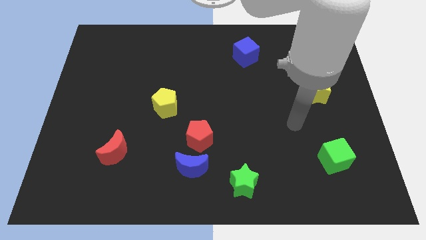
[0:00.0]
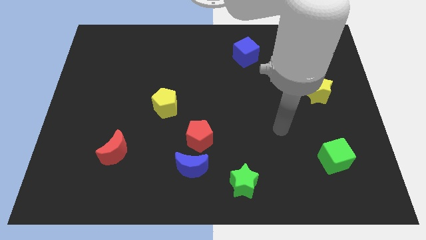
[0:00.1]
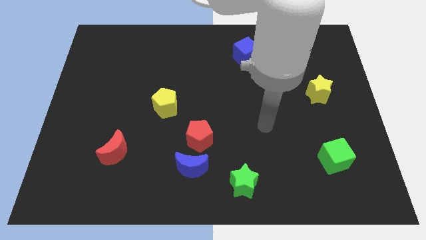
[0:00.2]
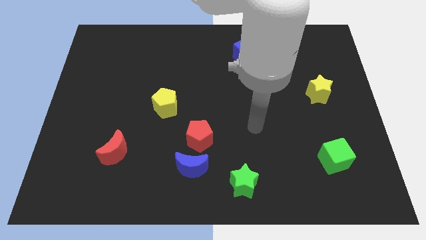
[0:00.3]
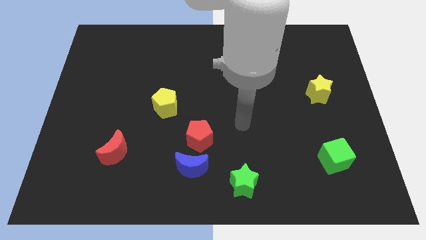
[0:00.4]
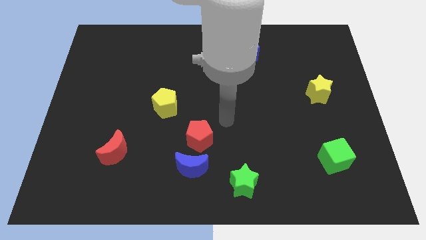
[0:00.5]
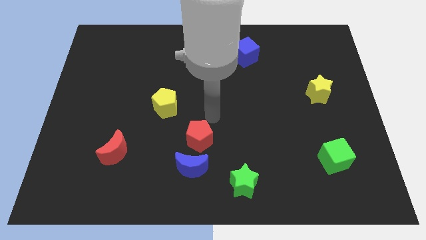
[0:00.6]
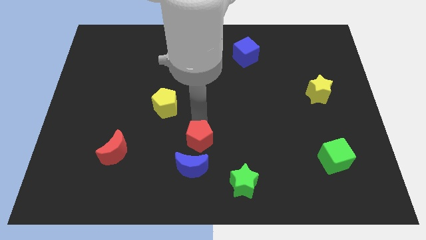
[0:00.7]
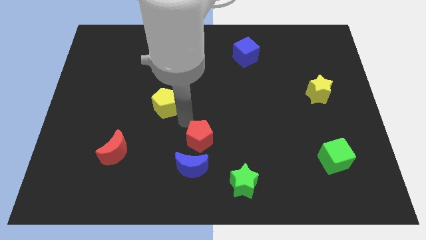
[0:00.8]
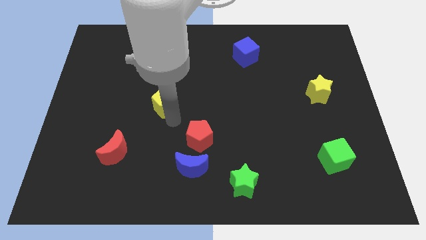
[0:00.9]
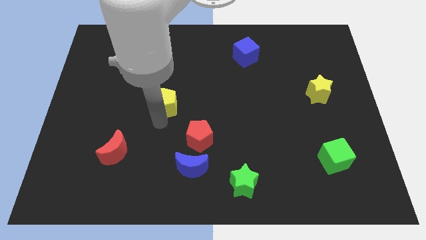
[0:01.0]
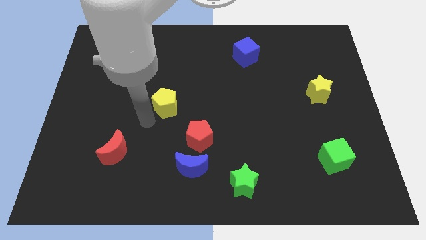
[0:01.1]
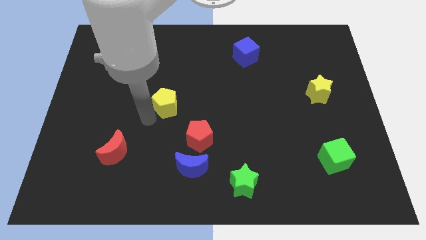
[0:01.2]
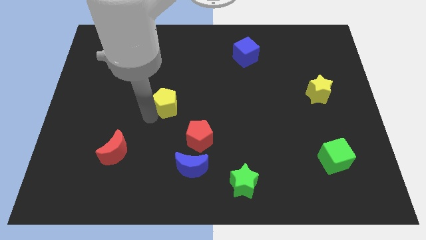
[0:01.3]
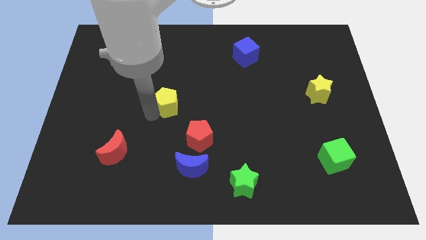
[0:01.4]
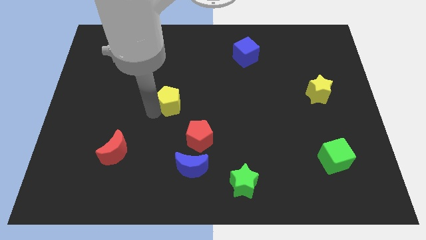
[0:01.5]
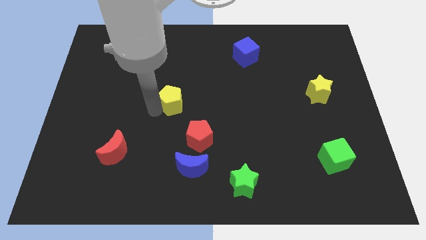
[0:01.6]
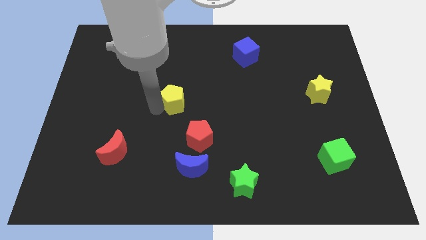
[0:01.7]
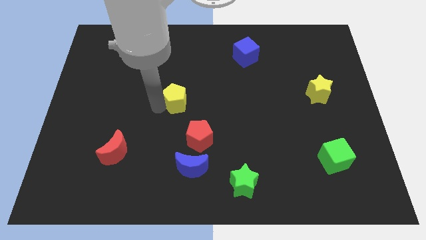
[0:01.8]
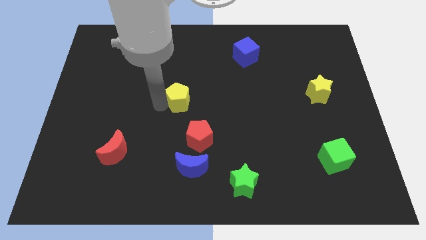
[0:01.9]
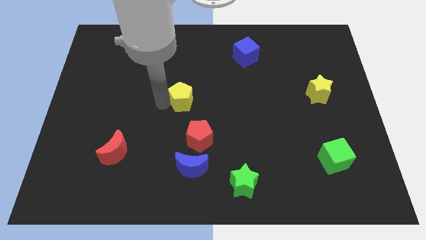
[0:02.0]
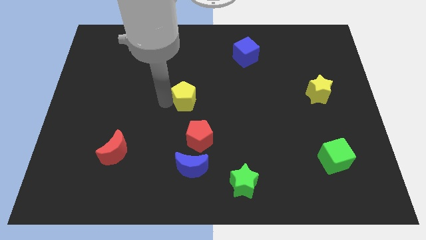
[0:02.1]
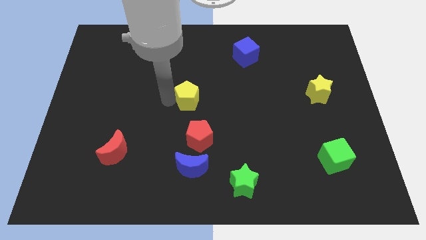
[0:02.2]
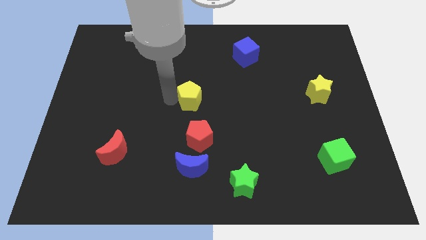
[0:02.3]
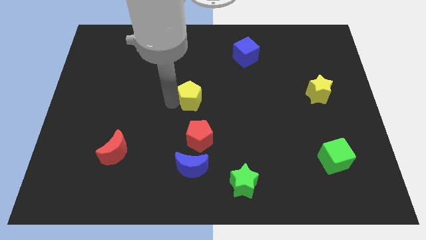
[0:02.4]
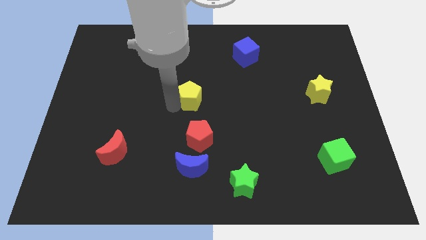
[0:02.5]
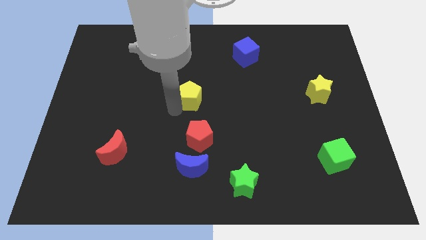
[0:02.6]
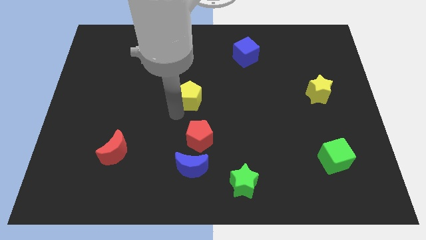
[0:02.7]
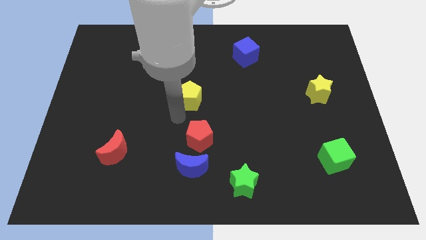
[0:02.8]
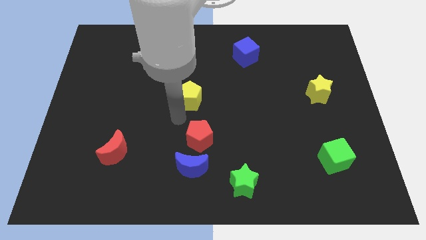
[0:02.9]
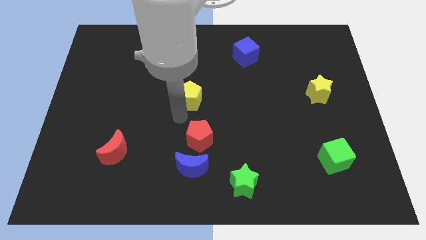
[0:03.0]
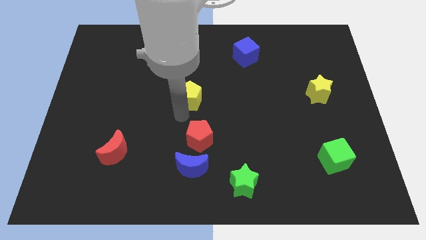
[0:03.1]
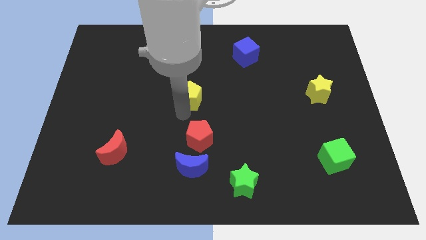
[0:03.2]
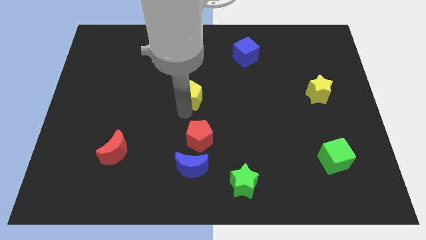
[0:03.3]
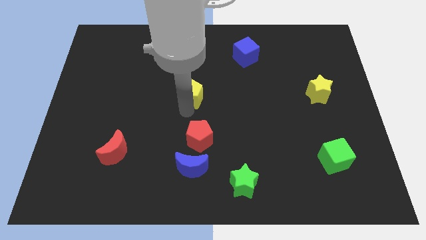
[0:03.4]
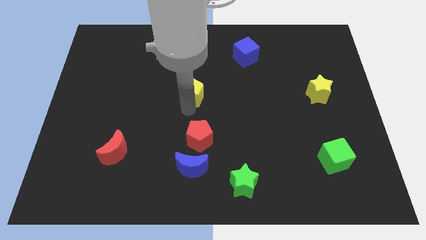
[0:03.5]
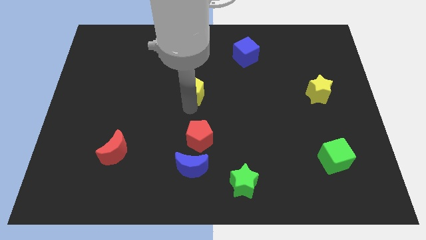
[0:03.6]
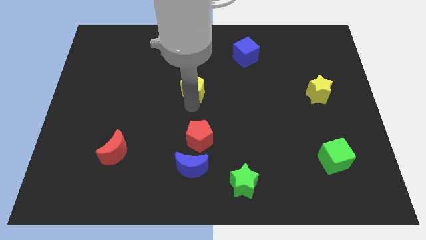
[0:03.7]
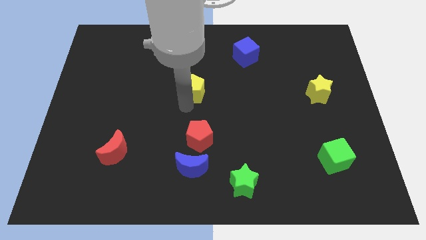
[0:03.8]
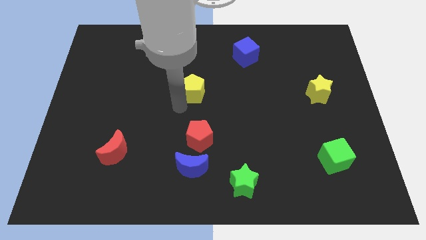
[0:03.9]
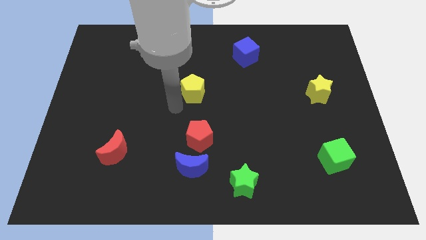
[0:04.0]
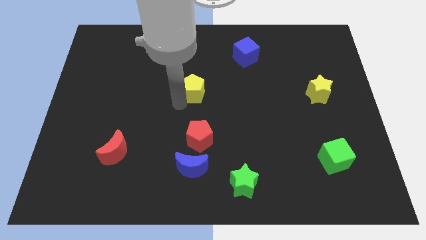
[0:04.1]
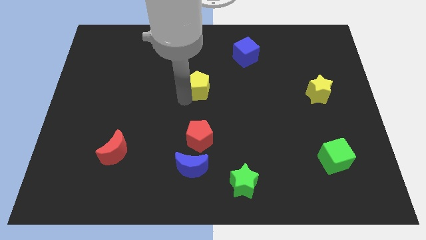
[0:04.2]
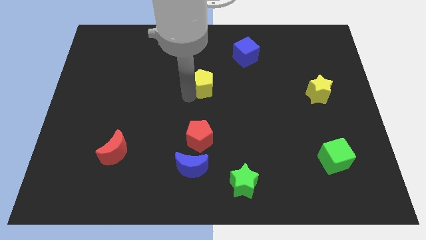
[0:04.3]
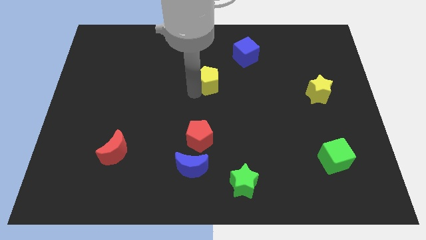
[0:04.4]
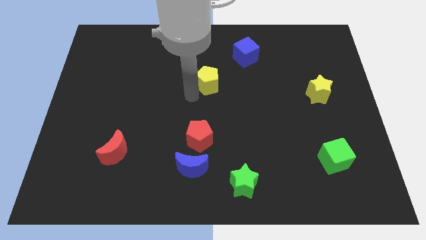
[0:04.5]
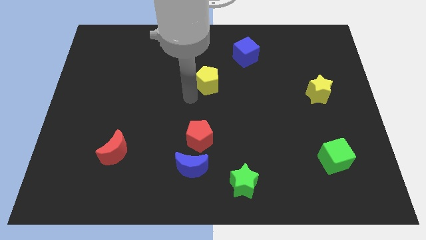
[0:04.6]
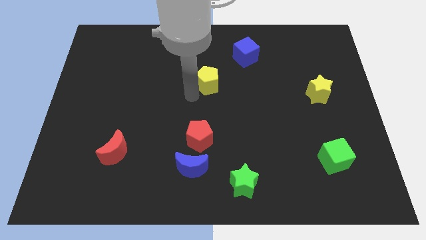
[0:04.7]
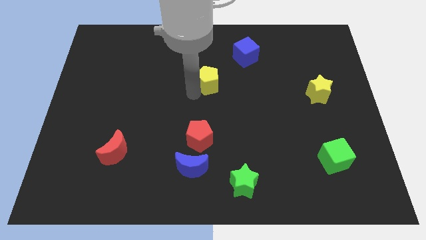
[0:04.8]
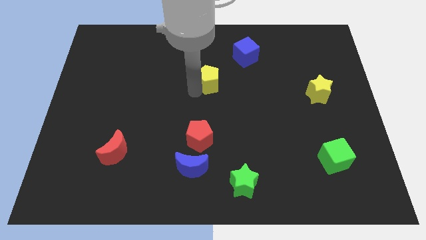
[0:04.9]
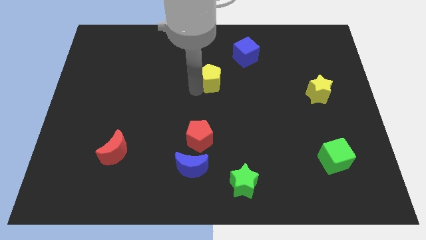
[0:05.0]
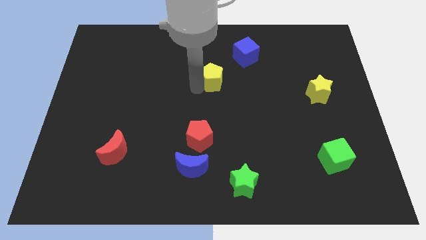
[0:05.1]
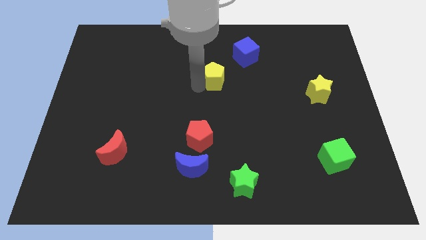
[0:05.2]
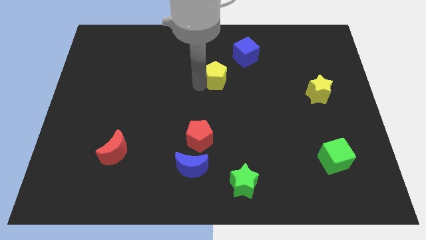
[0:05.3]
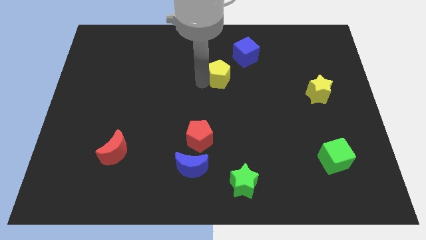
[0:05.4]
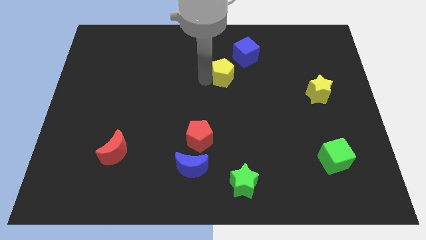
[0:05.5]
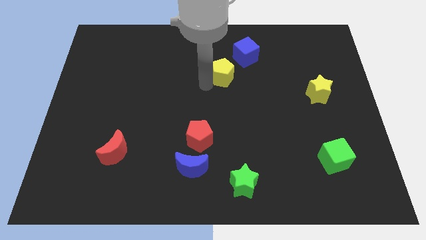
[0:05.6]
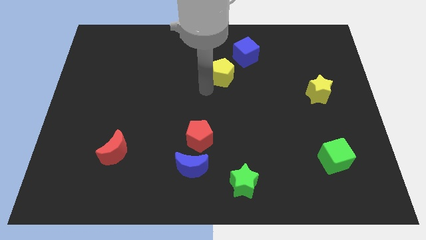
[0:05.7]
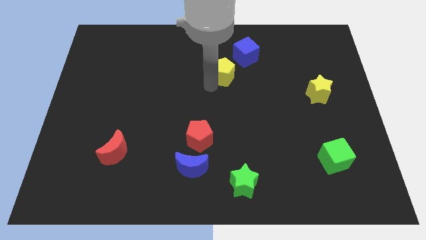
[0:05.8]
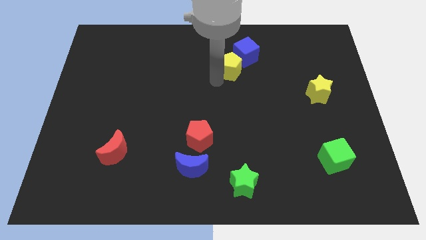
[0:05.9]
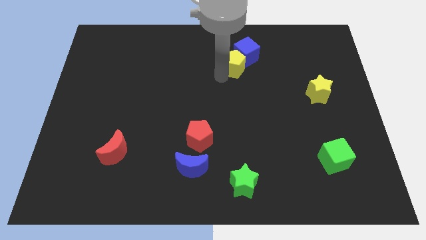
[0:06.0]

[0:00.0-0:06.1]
slide the yellow pentagon close to the blue cube
